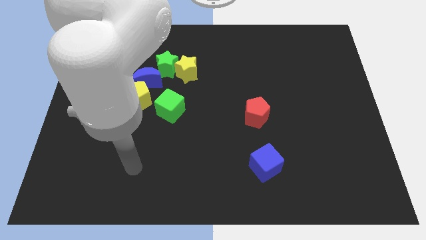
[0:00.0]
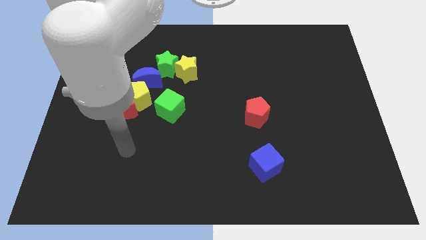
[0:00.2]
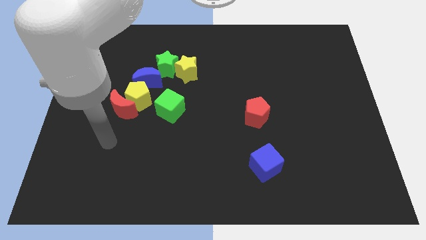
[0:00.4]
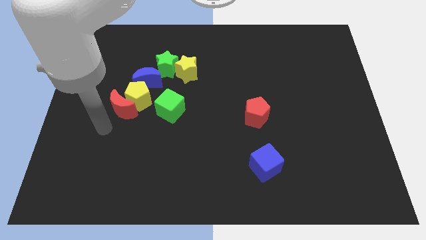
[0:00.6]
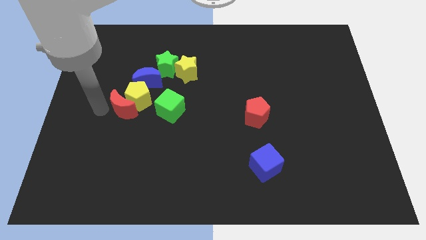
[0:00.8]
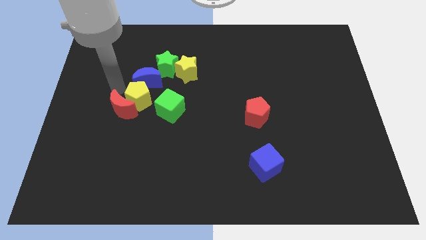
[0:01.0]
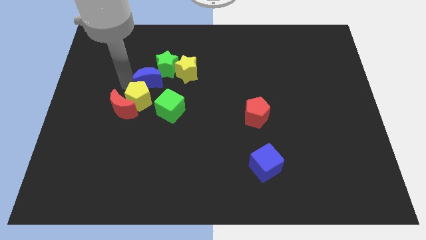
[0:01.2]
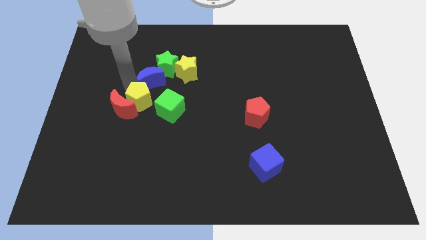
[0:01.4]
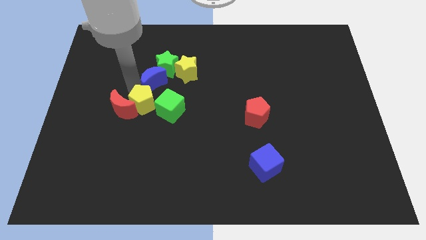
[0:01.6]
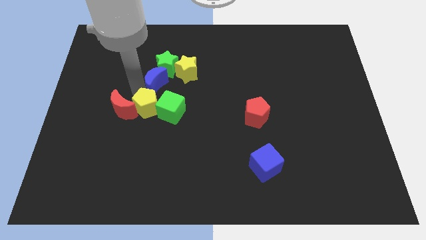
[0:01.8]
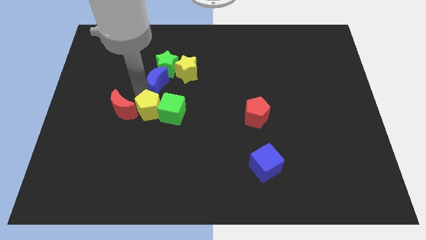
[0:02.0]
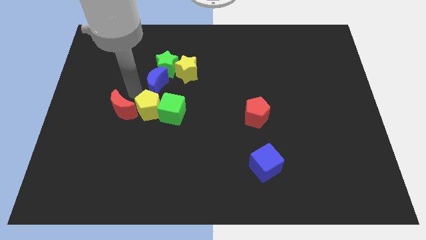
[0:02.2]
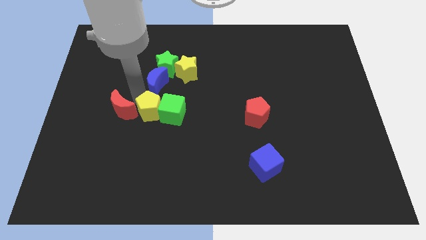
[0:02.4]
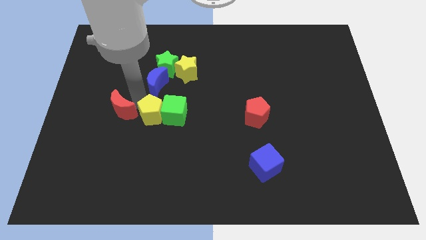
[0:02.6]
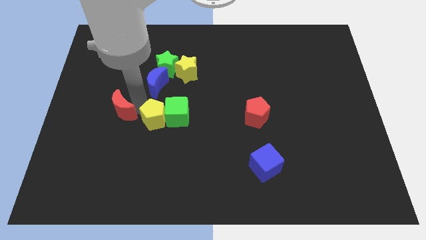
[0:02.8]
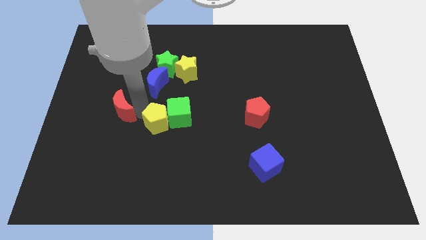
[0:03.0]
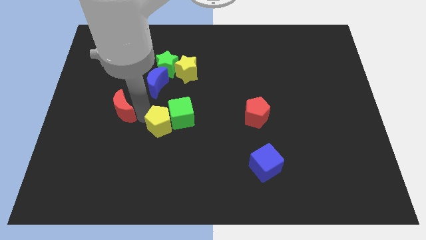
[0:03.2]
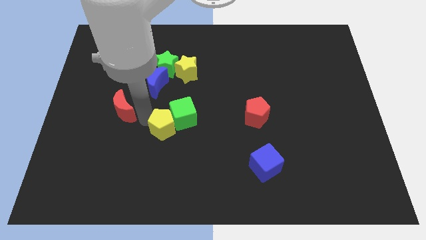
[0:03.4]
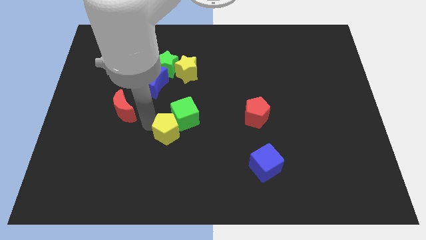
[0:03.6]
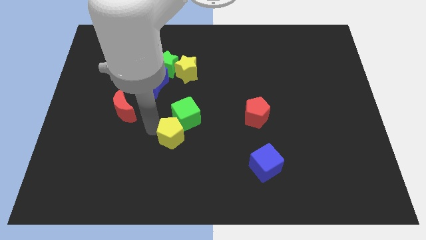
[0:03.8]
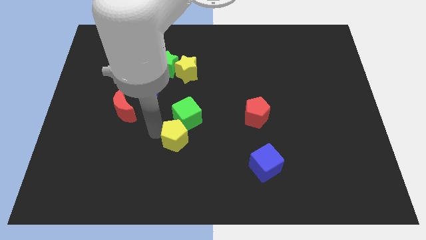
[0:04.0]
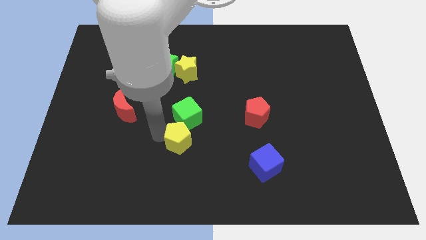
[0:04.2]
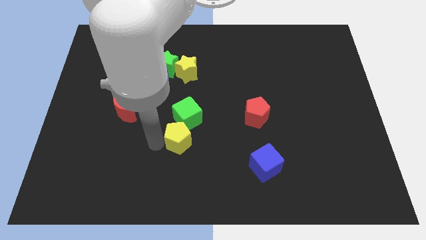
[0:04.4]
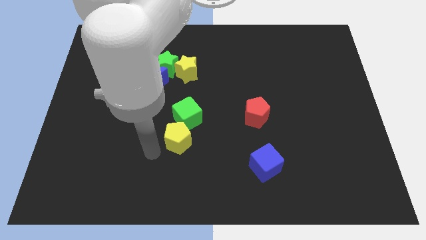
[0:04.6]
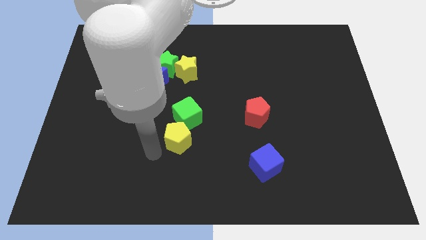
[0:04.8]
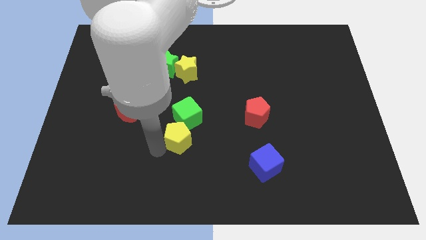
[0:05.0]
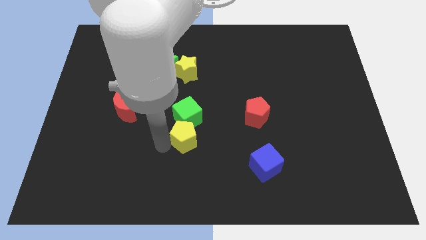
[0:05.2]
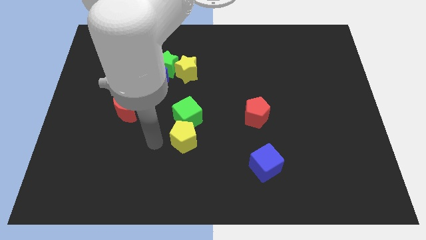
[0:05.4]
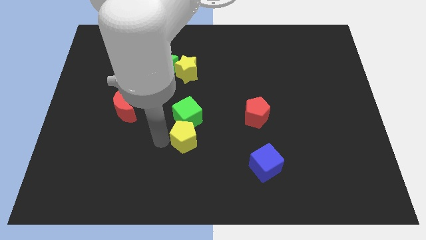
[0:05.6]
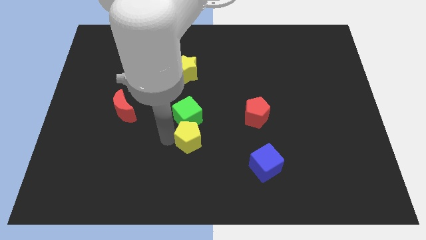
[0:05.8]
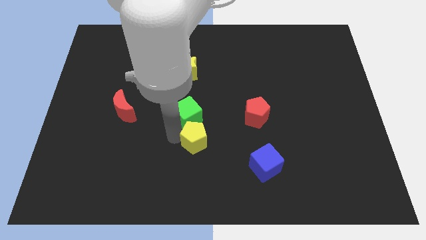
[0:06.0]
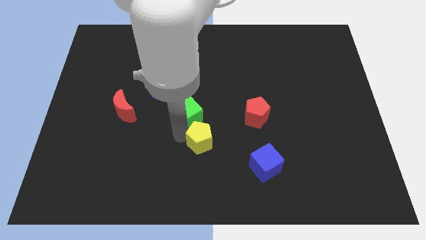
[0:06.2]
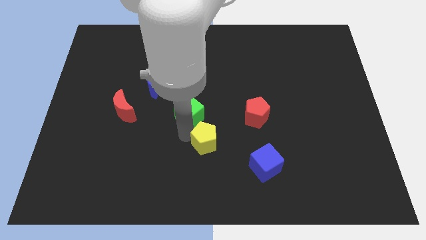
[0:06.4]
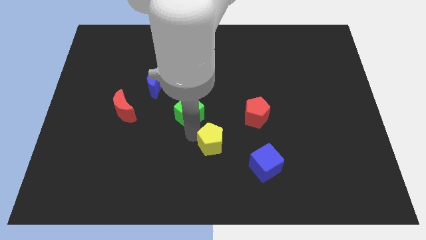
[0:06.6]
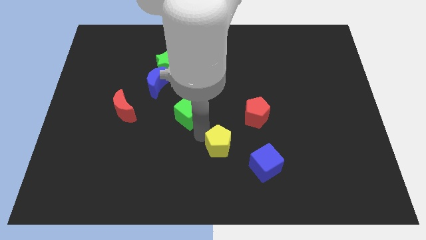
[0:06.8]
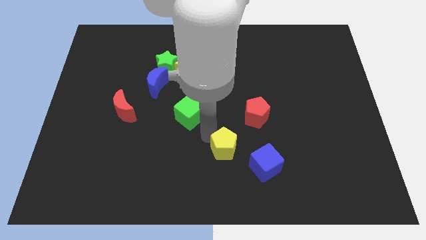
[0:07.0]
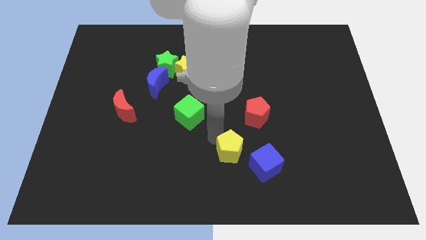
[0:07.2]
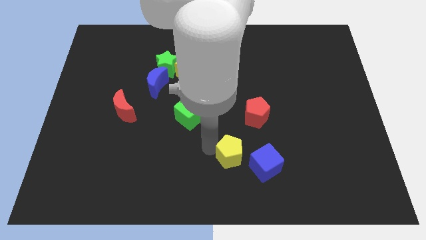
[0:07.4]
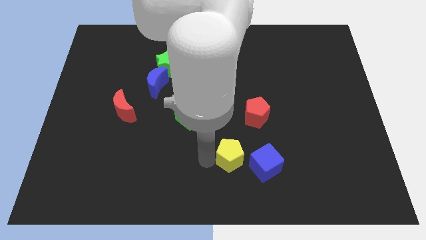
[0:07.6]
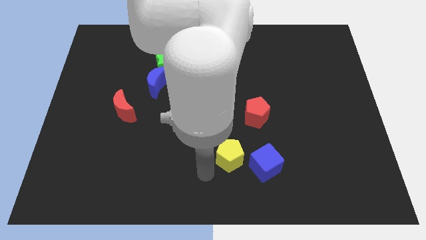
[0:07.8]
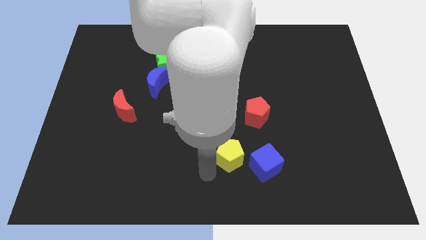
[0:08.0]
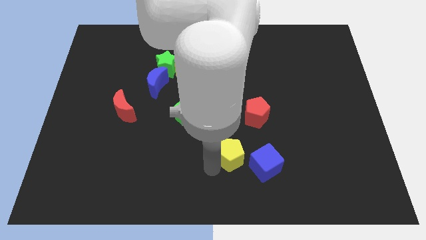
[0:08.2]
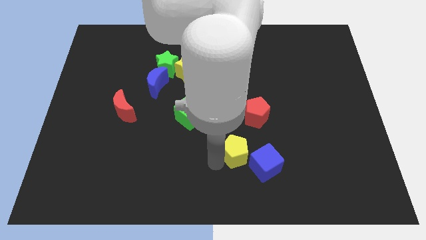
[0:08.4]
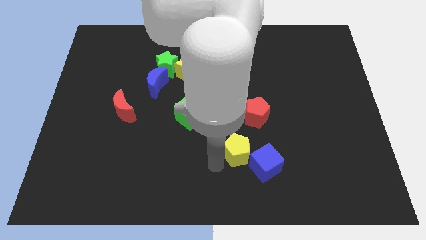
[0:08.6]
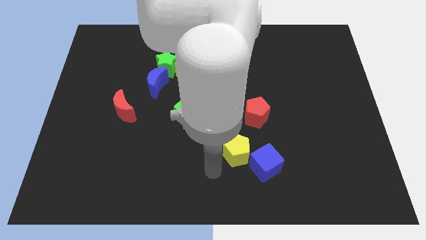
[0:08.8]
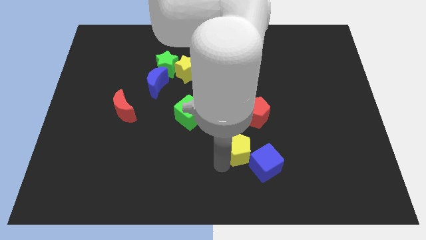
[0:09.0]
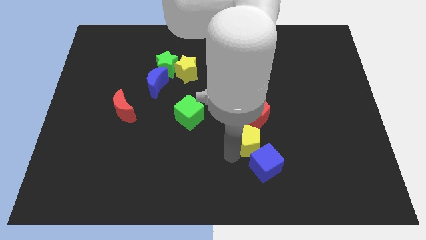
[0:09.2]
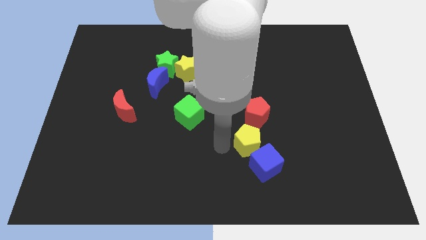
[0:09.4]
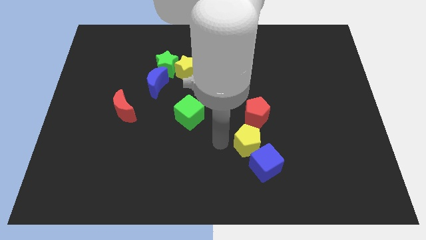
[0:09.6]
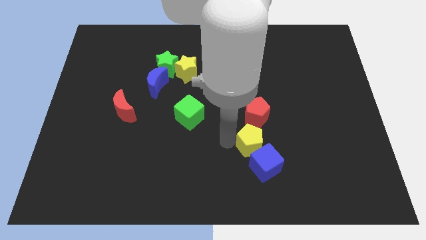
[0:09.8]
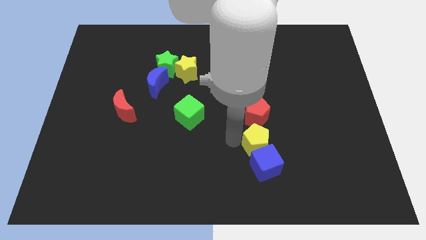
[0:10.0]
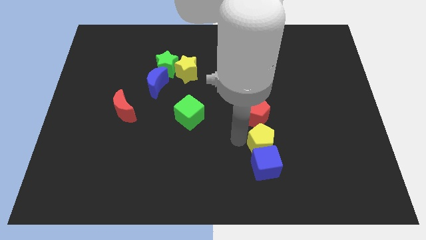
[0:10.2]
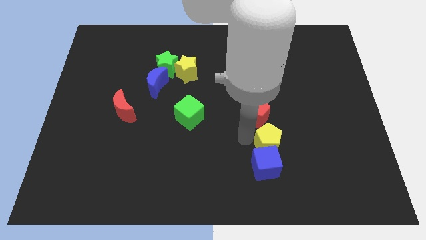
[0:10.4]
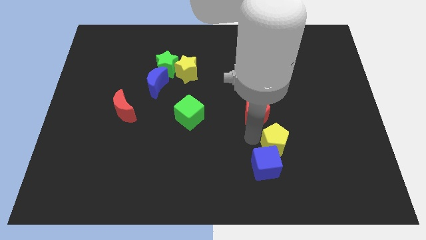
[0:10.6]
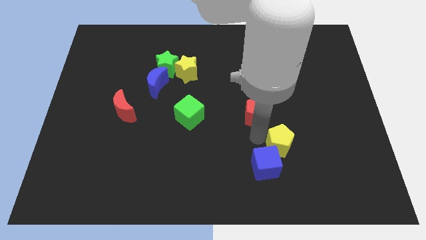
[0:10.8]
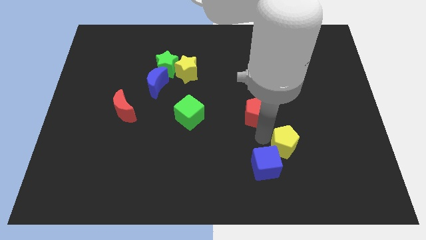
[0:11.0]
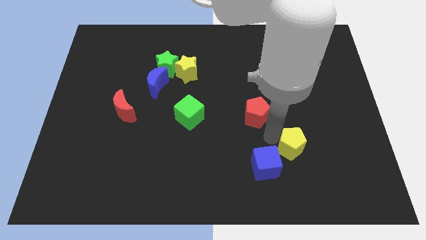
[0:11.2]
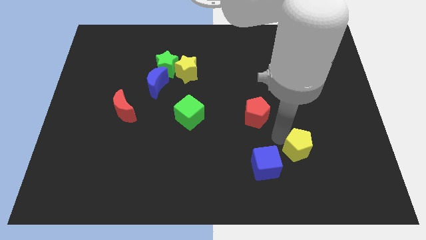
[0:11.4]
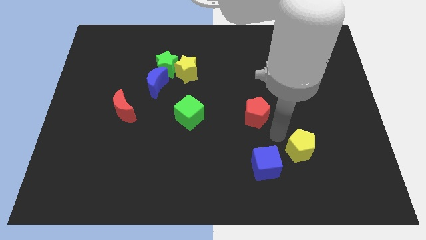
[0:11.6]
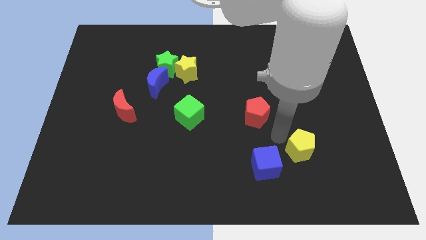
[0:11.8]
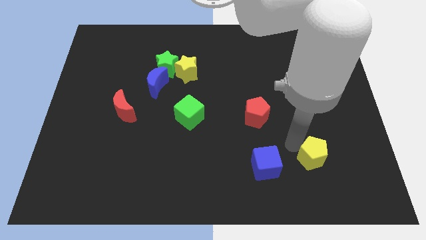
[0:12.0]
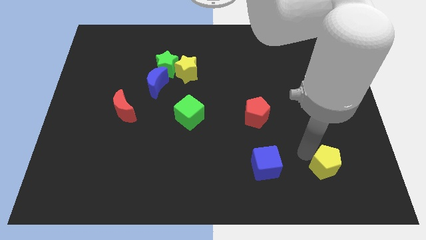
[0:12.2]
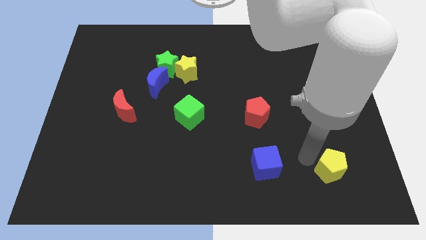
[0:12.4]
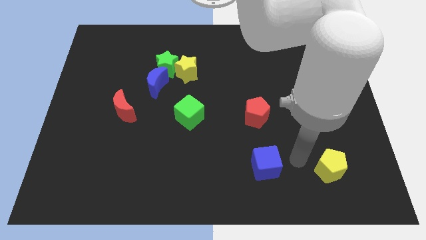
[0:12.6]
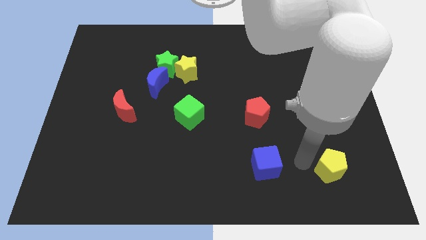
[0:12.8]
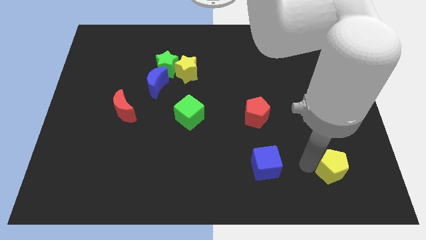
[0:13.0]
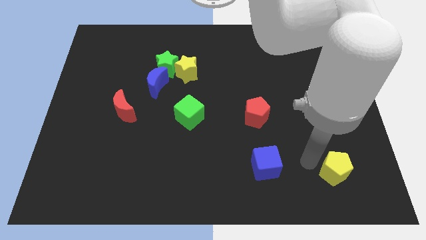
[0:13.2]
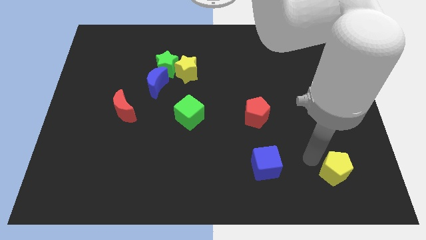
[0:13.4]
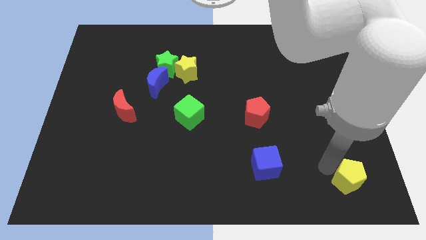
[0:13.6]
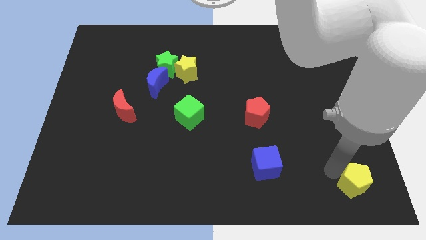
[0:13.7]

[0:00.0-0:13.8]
slide the yellow pentagon to the bottom right corner
